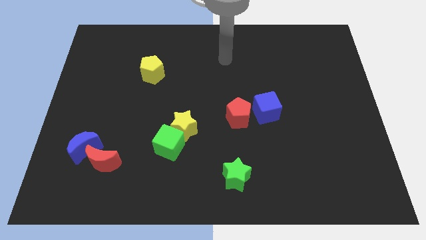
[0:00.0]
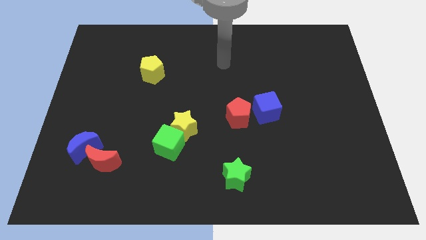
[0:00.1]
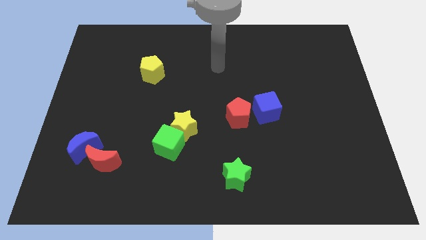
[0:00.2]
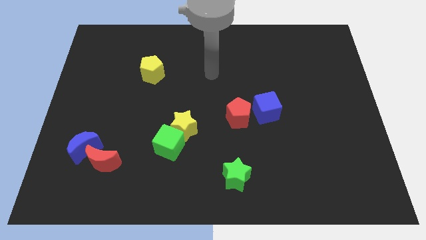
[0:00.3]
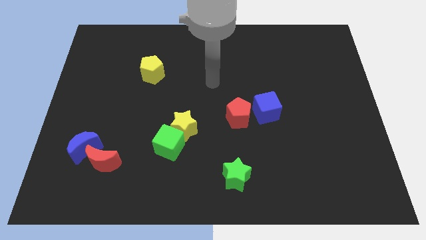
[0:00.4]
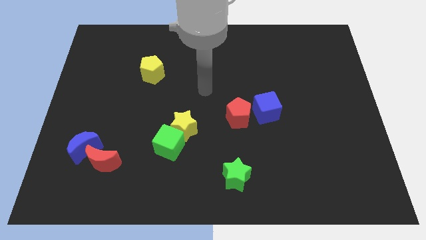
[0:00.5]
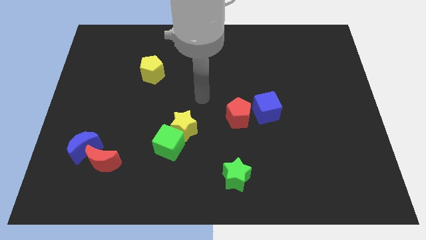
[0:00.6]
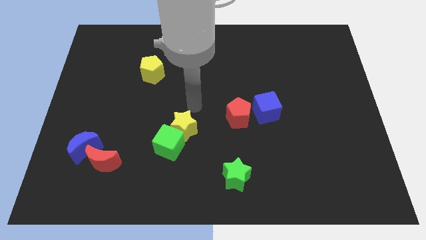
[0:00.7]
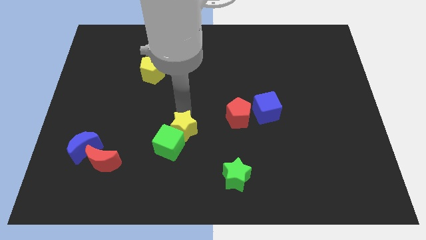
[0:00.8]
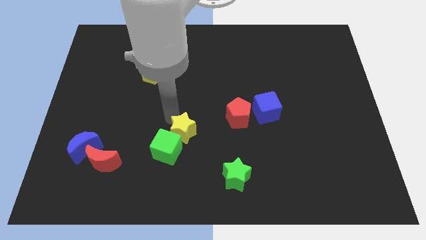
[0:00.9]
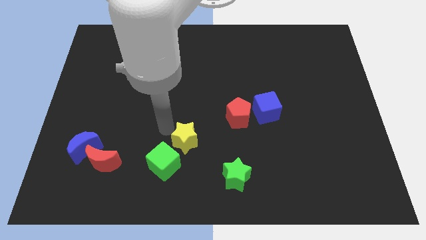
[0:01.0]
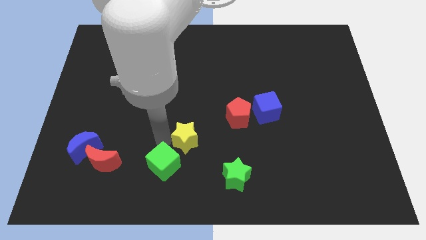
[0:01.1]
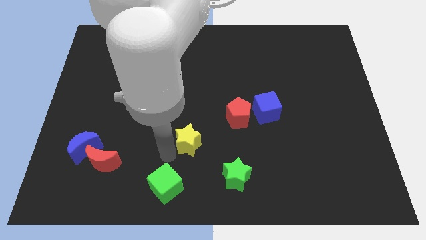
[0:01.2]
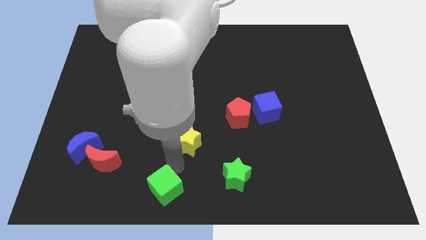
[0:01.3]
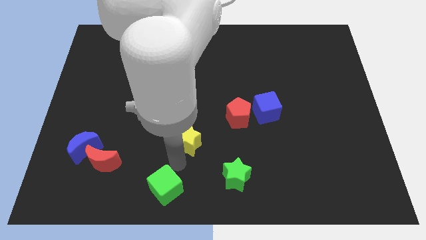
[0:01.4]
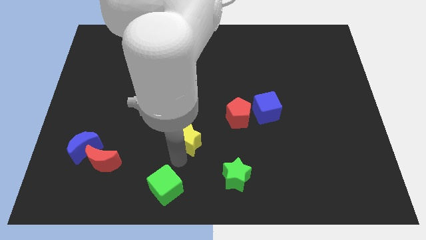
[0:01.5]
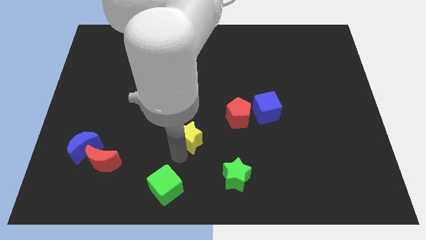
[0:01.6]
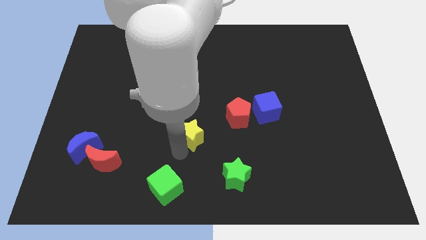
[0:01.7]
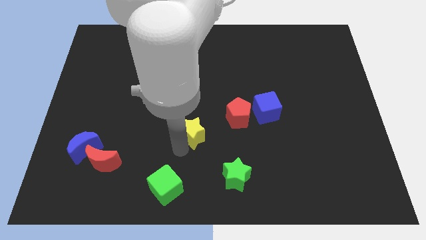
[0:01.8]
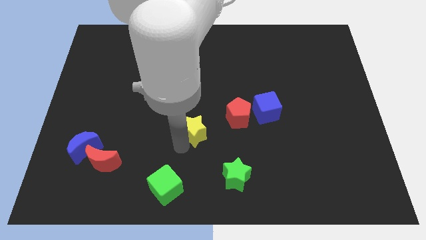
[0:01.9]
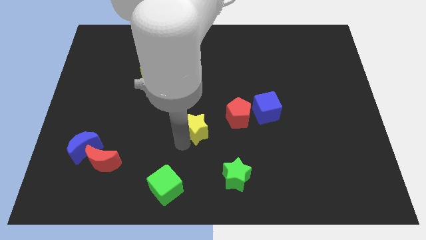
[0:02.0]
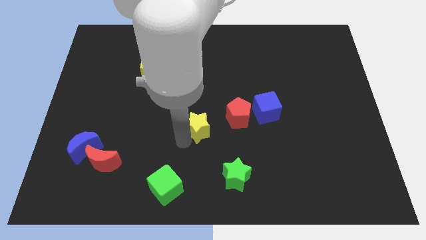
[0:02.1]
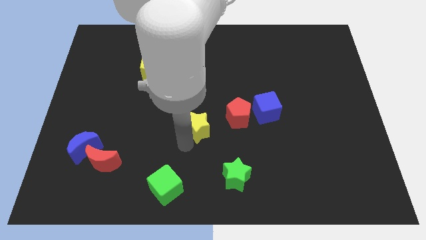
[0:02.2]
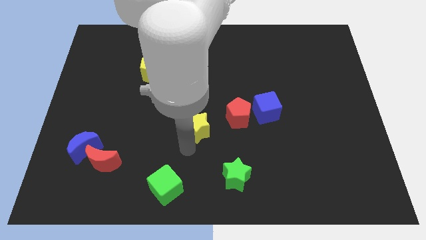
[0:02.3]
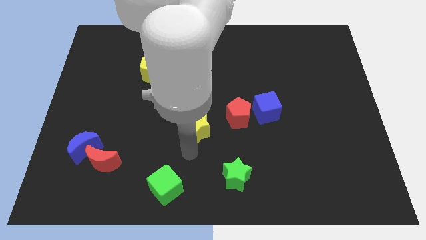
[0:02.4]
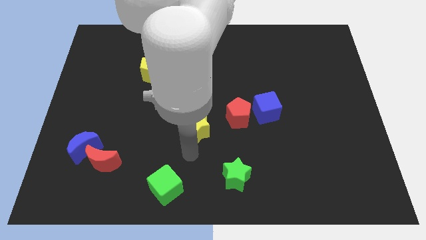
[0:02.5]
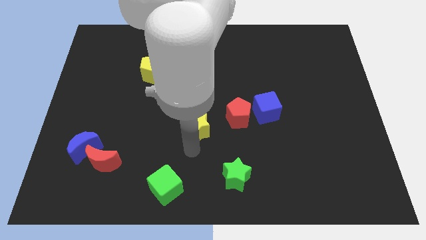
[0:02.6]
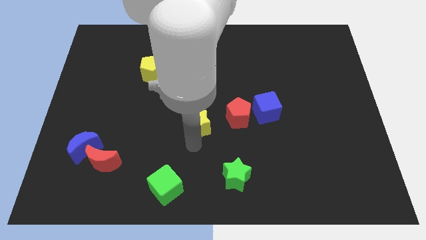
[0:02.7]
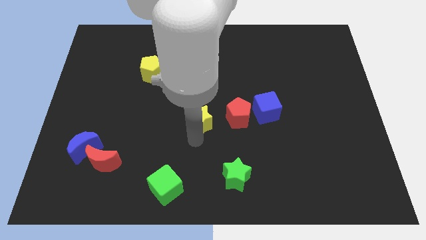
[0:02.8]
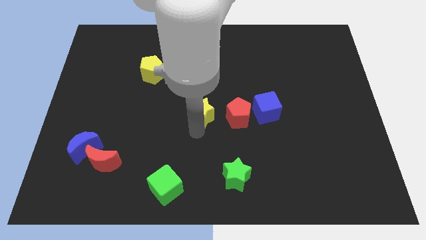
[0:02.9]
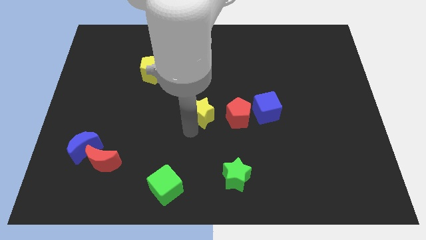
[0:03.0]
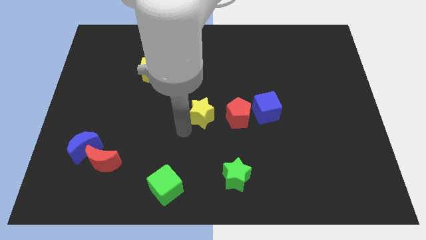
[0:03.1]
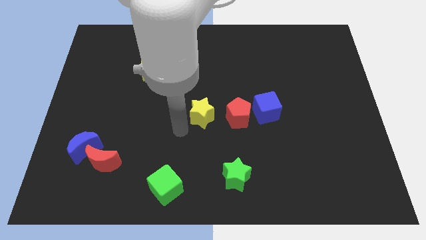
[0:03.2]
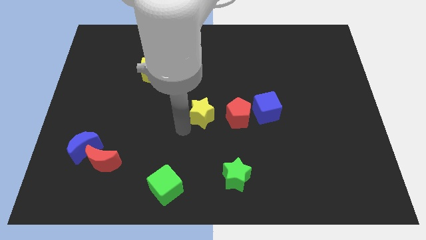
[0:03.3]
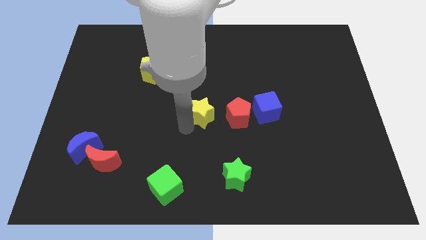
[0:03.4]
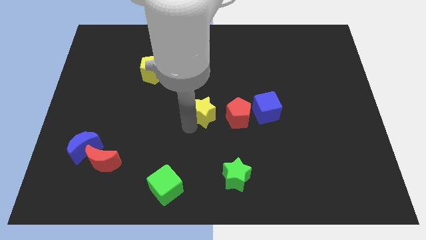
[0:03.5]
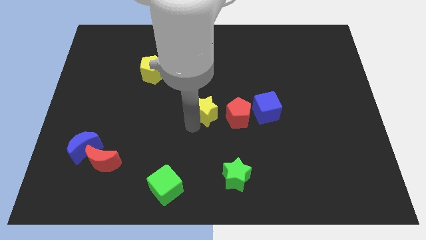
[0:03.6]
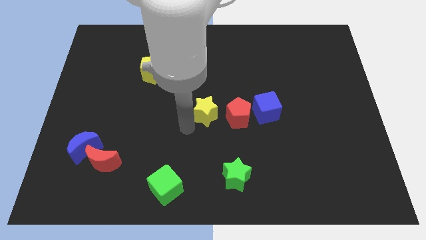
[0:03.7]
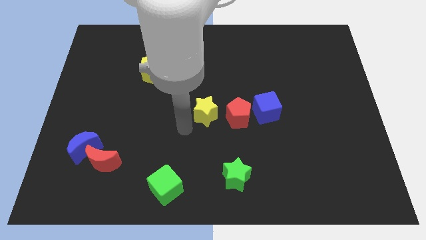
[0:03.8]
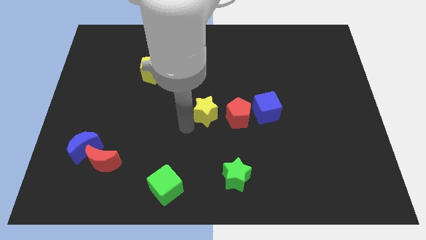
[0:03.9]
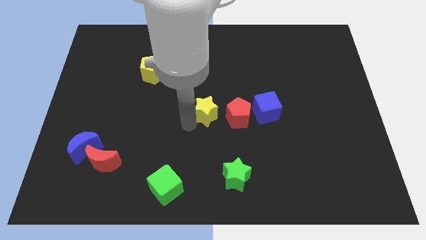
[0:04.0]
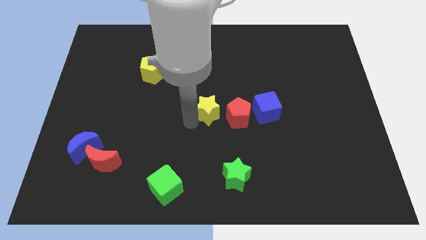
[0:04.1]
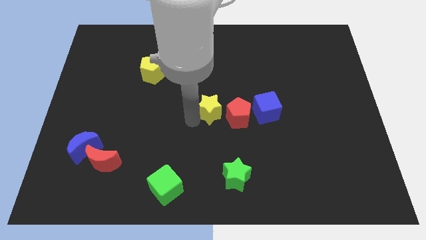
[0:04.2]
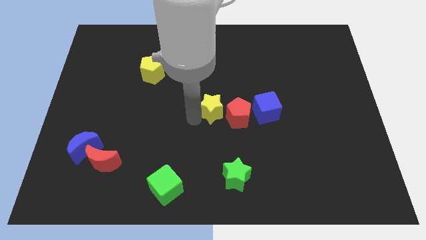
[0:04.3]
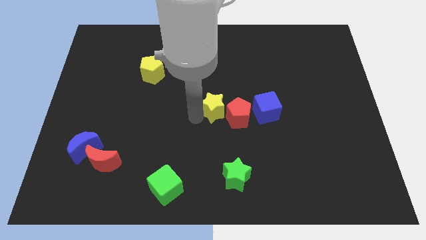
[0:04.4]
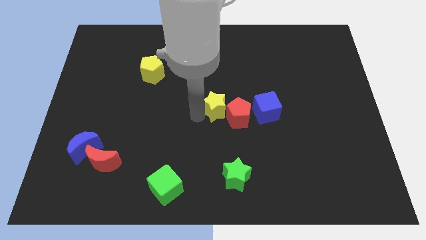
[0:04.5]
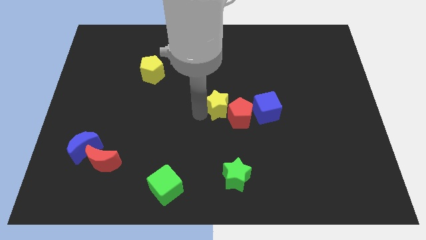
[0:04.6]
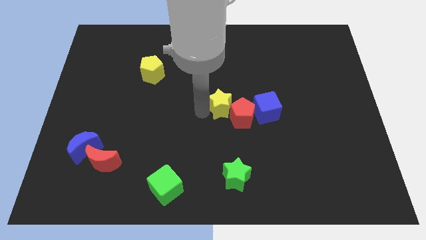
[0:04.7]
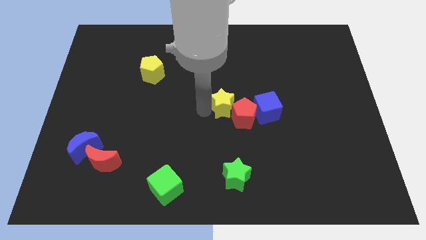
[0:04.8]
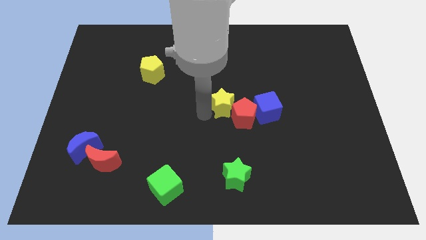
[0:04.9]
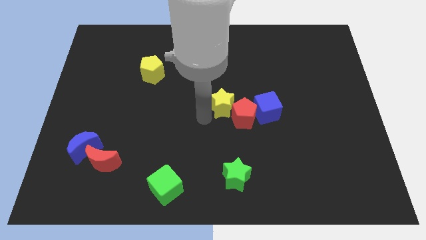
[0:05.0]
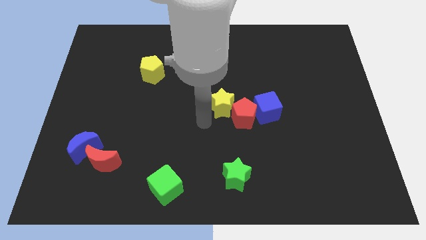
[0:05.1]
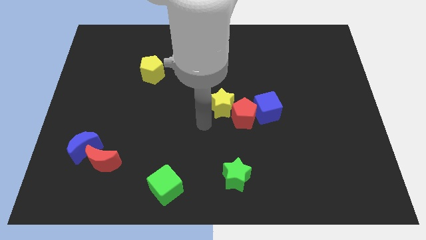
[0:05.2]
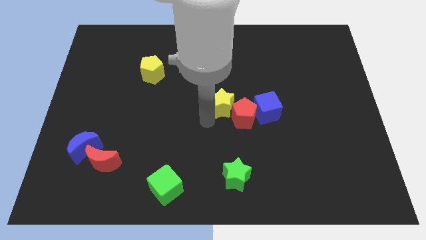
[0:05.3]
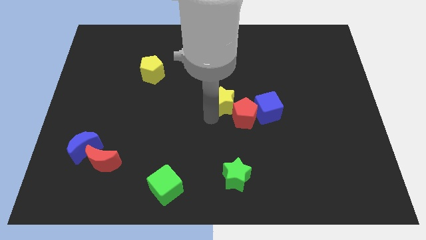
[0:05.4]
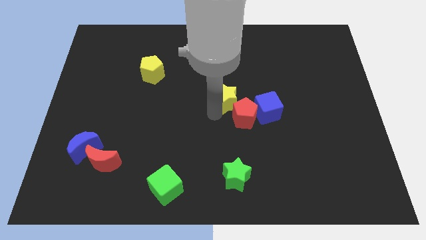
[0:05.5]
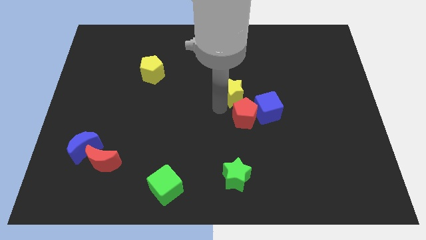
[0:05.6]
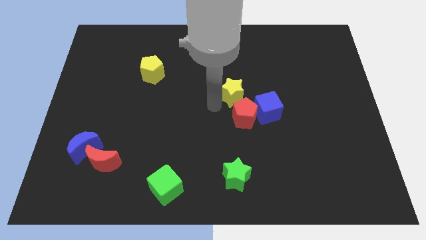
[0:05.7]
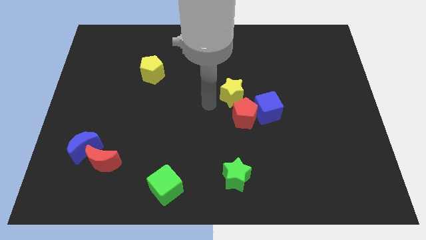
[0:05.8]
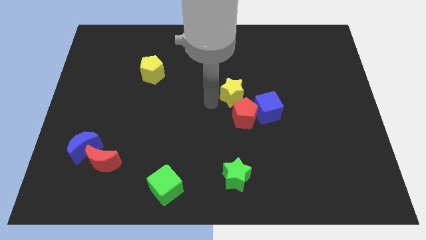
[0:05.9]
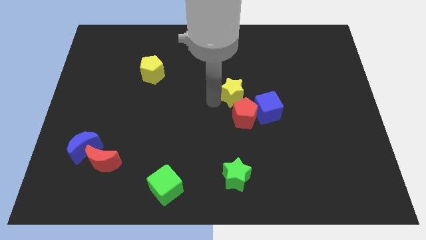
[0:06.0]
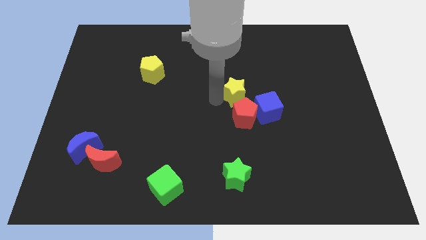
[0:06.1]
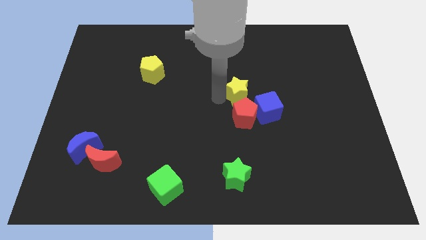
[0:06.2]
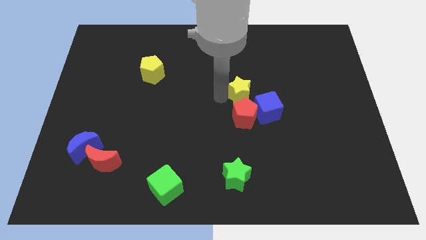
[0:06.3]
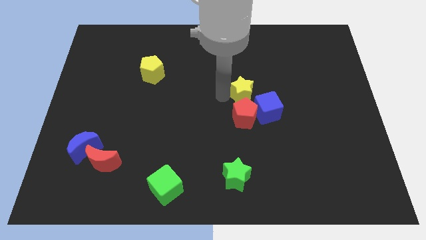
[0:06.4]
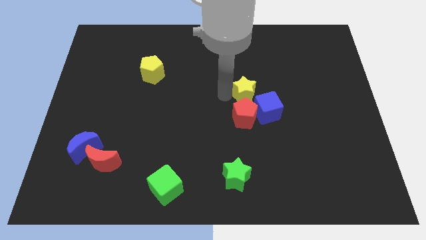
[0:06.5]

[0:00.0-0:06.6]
push the yellow star to the top of the blue cube

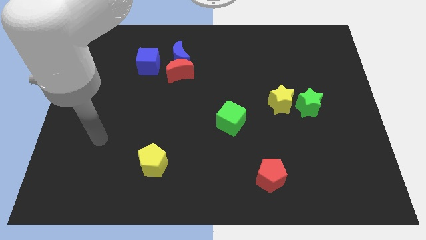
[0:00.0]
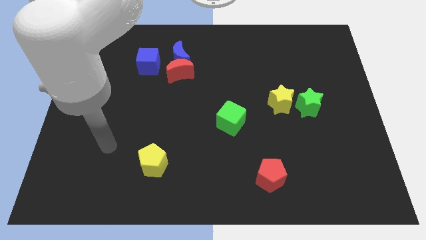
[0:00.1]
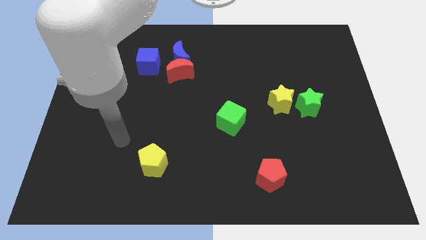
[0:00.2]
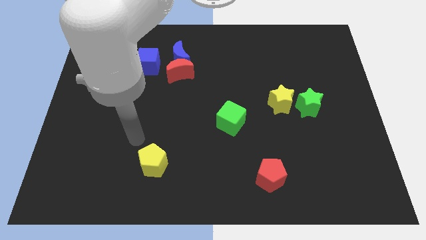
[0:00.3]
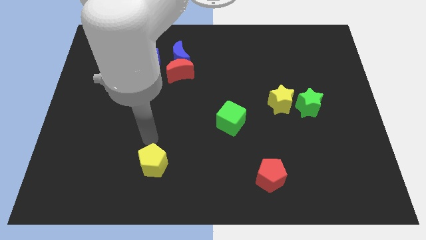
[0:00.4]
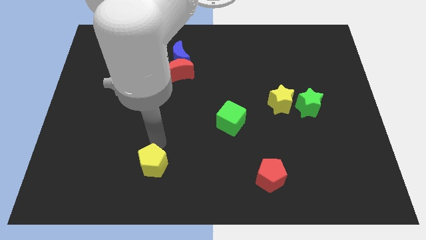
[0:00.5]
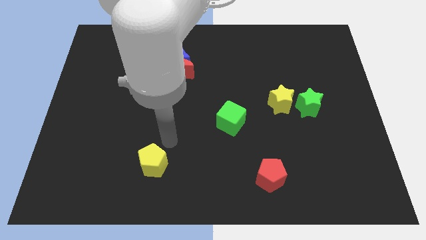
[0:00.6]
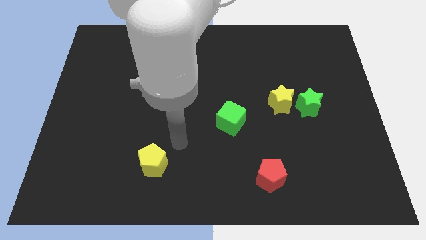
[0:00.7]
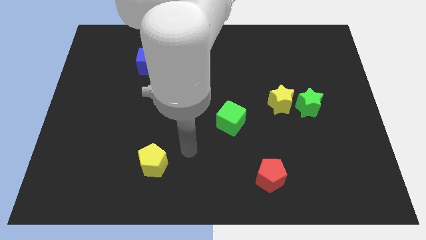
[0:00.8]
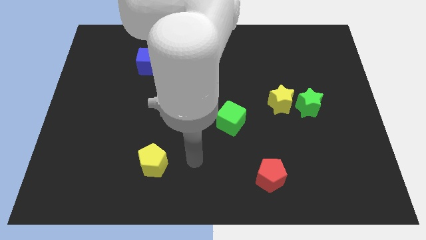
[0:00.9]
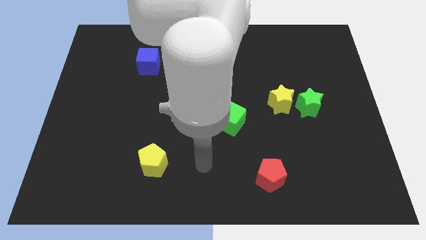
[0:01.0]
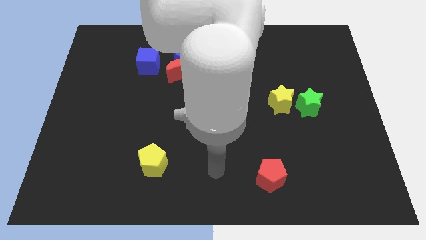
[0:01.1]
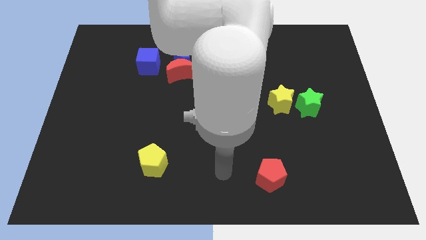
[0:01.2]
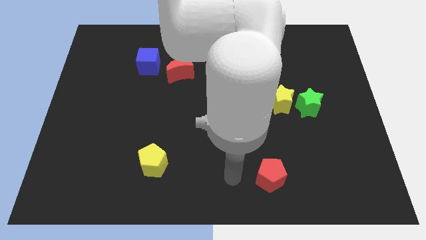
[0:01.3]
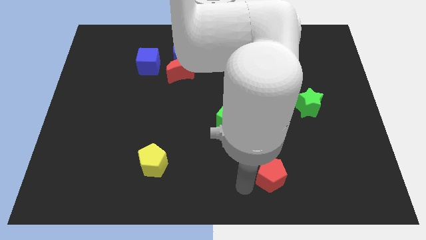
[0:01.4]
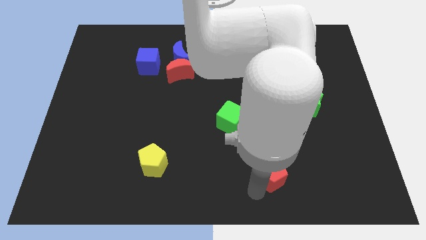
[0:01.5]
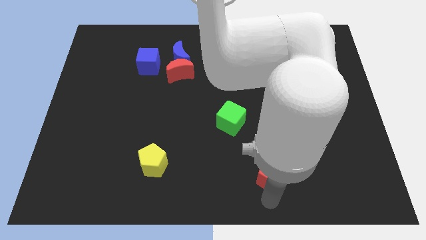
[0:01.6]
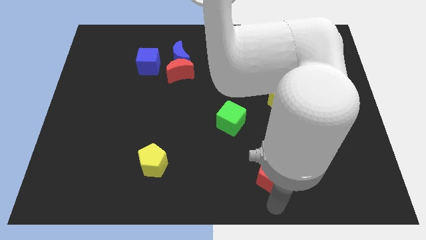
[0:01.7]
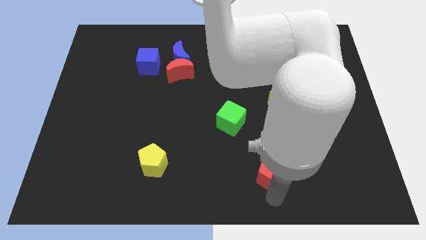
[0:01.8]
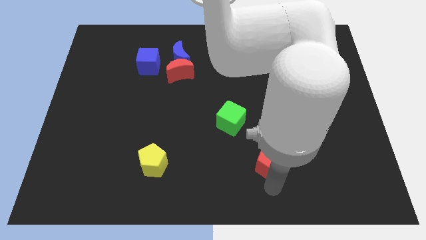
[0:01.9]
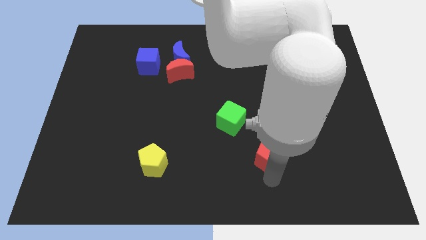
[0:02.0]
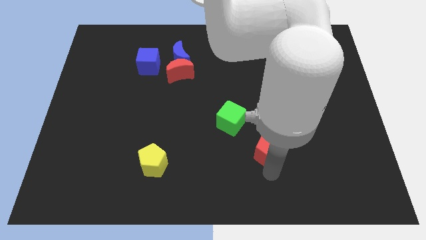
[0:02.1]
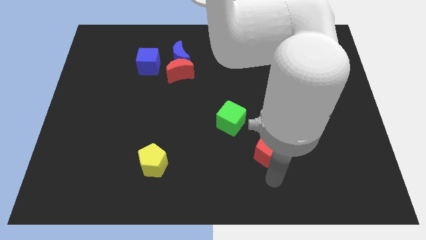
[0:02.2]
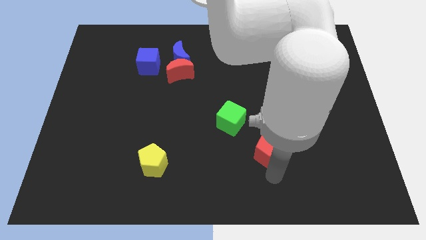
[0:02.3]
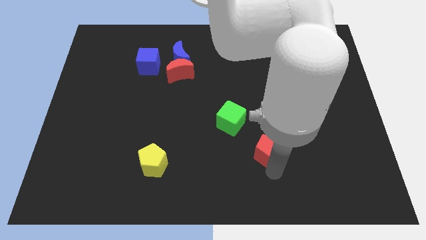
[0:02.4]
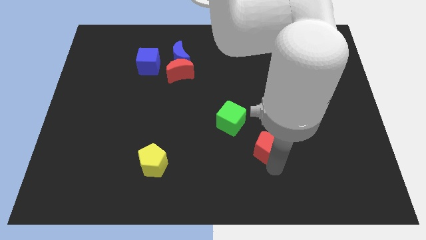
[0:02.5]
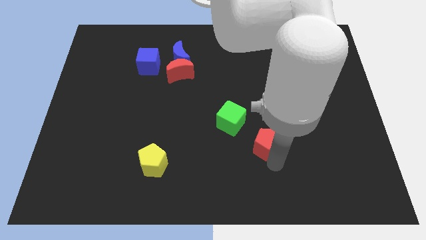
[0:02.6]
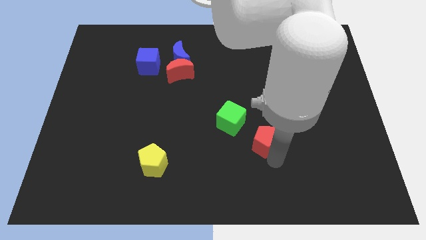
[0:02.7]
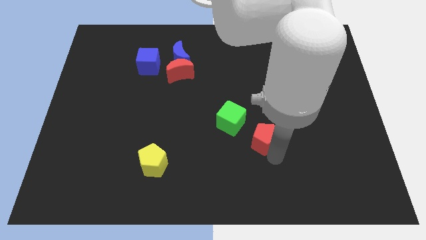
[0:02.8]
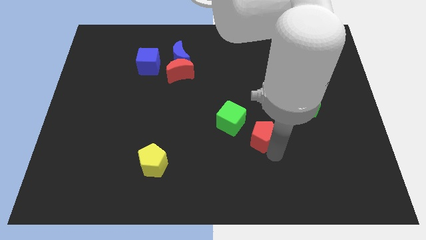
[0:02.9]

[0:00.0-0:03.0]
push the red pentagon to the bottom left of the yellow star
